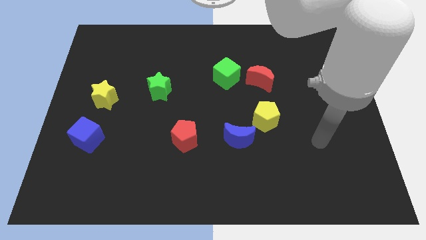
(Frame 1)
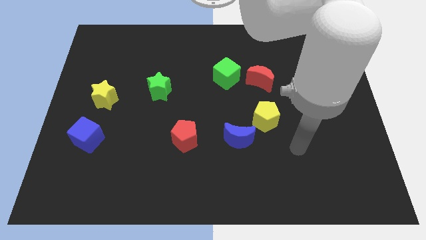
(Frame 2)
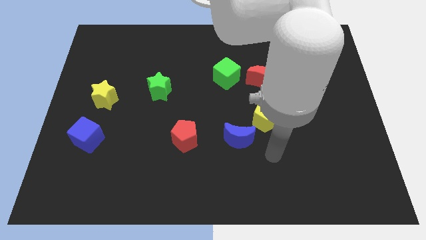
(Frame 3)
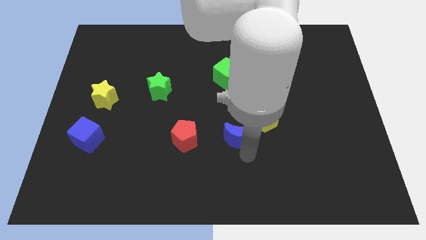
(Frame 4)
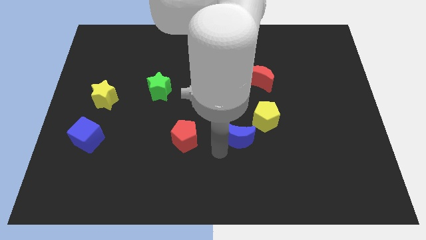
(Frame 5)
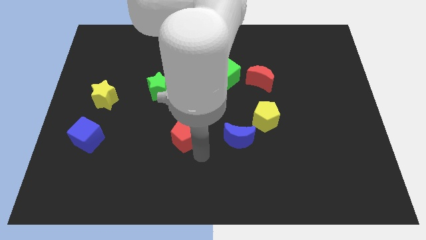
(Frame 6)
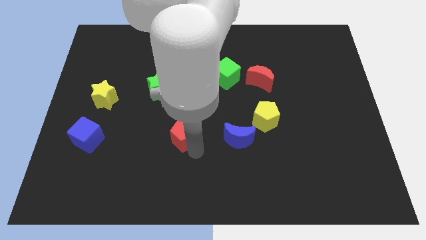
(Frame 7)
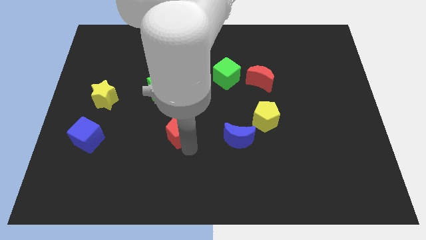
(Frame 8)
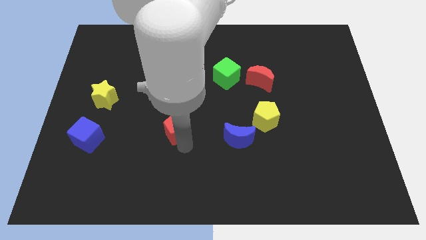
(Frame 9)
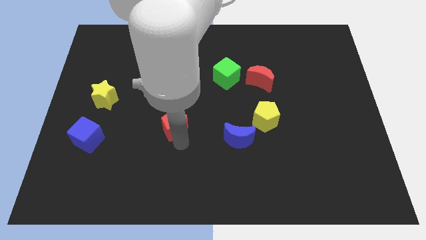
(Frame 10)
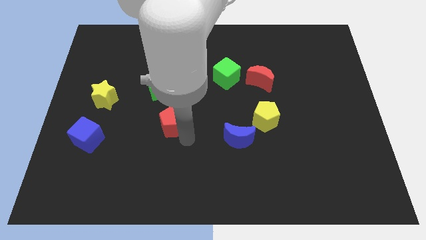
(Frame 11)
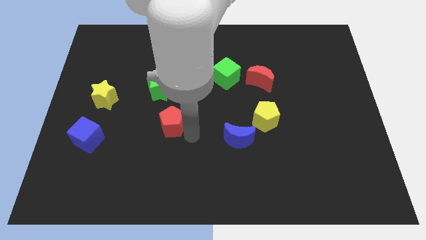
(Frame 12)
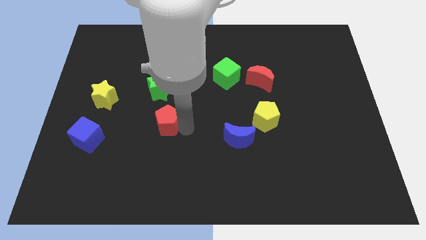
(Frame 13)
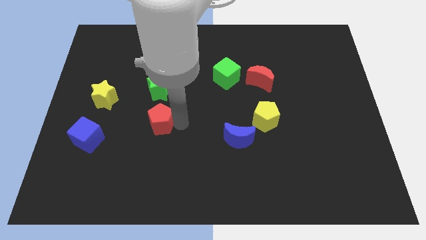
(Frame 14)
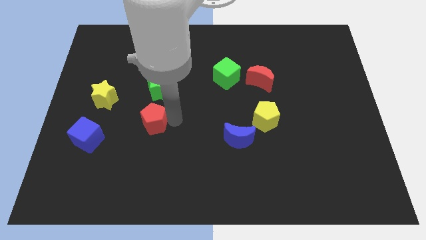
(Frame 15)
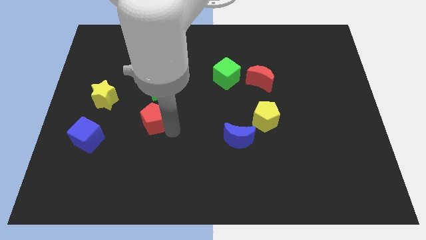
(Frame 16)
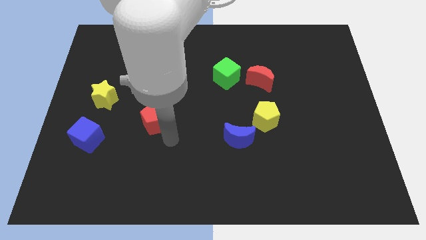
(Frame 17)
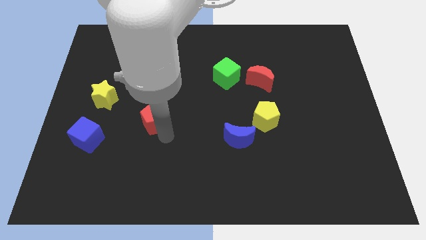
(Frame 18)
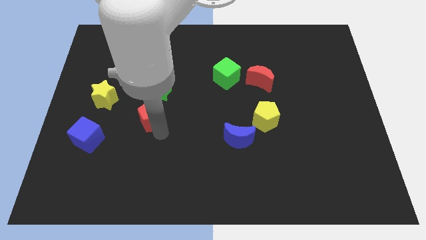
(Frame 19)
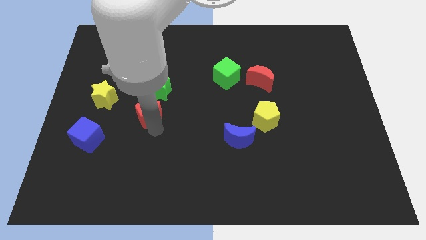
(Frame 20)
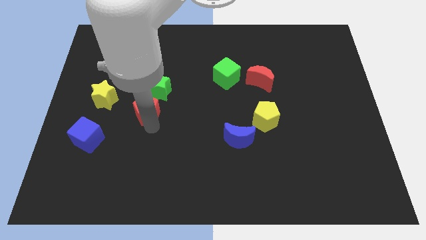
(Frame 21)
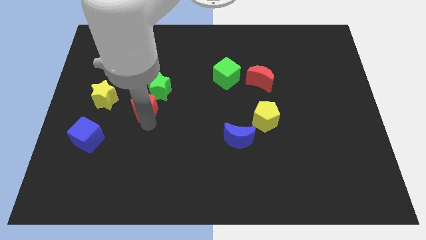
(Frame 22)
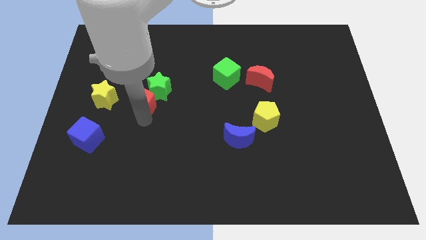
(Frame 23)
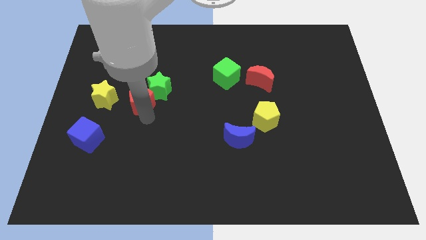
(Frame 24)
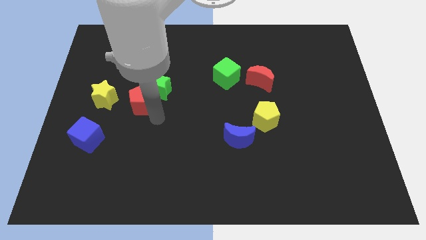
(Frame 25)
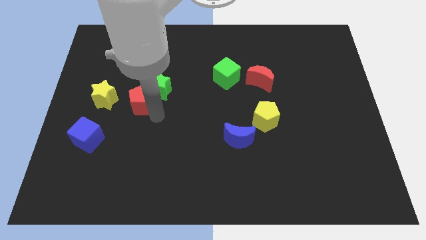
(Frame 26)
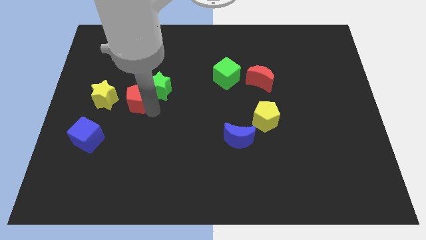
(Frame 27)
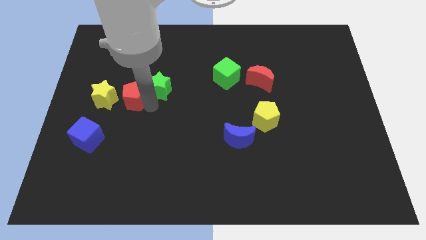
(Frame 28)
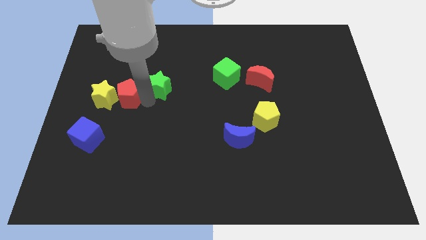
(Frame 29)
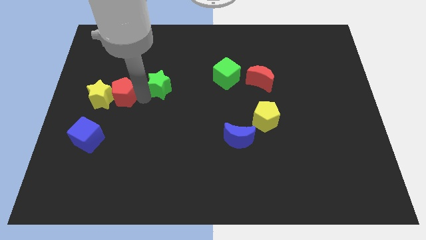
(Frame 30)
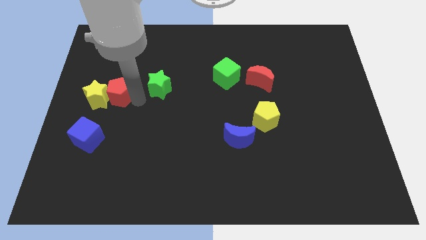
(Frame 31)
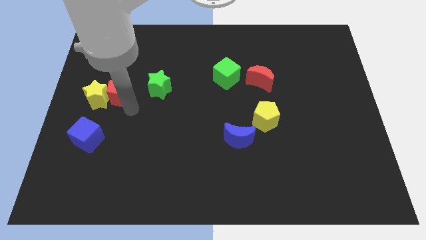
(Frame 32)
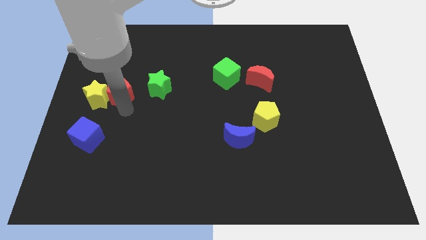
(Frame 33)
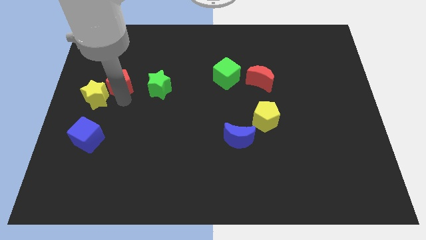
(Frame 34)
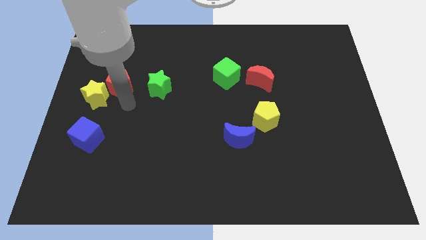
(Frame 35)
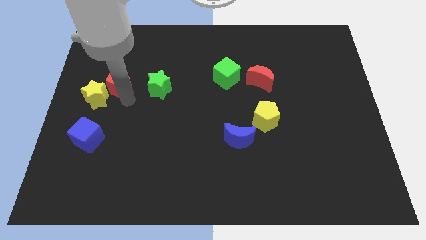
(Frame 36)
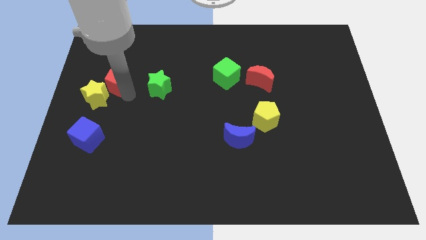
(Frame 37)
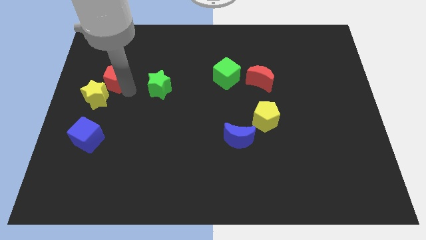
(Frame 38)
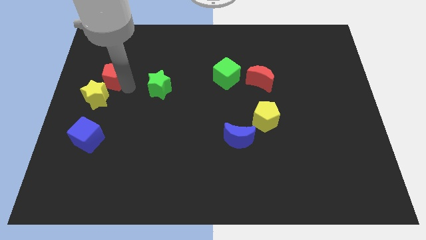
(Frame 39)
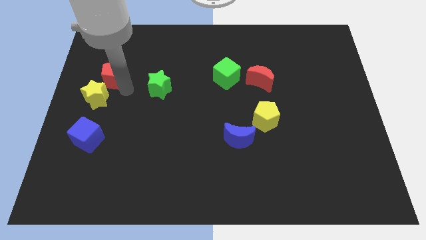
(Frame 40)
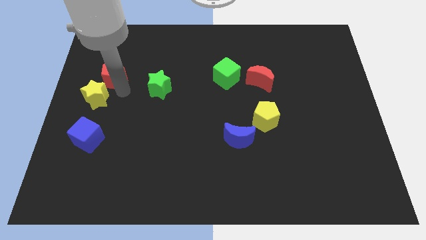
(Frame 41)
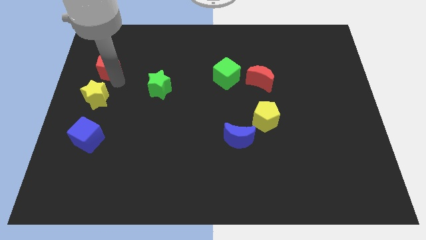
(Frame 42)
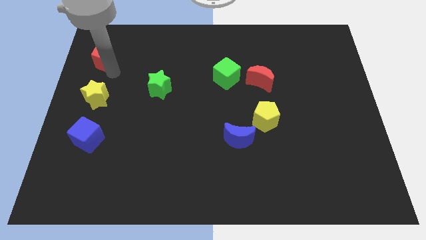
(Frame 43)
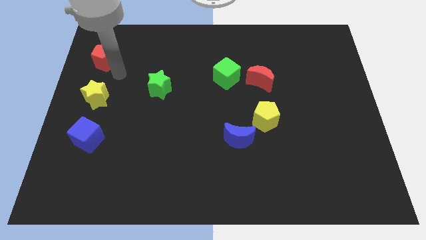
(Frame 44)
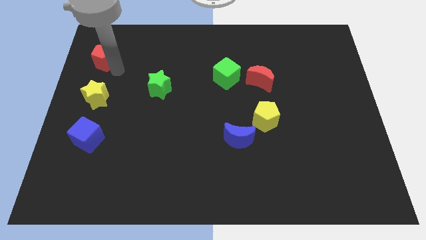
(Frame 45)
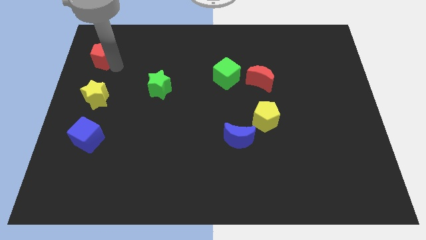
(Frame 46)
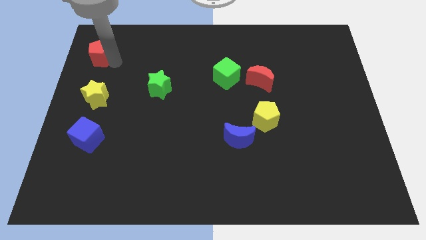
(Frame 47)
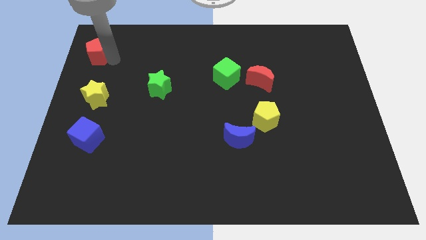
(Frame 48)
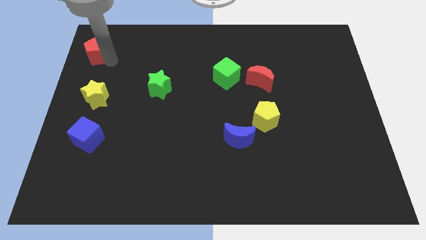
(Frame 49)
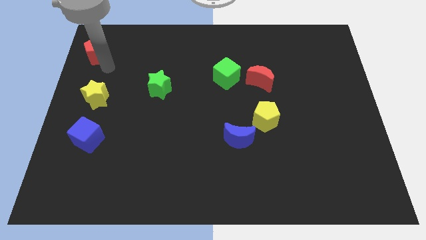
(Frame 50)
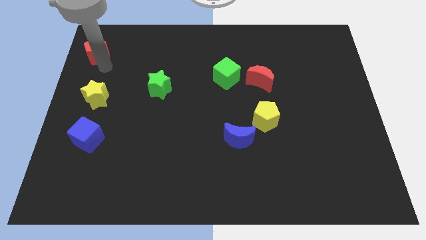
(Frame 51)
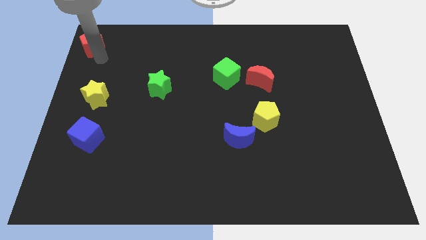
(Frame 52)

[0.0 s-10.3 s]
push the red pentagon to the top left corner

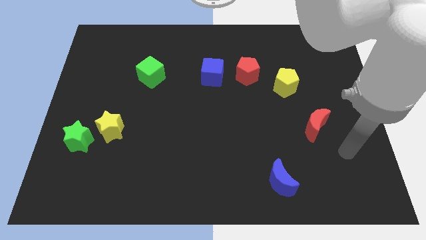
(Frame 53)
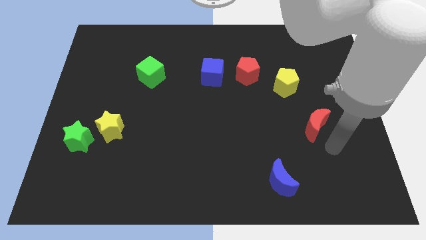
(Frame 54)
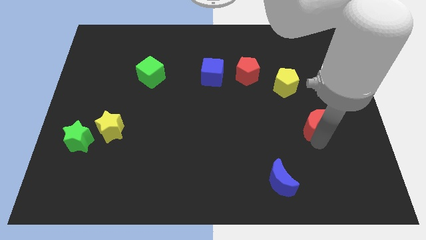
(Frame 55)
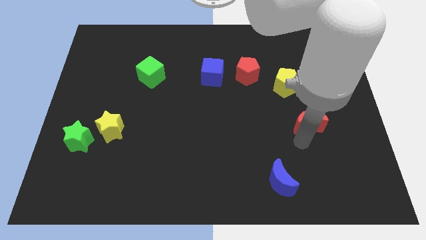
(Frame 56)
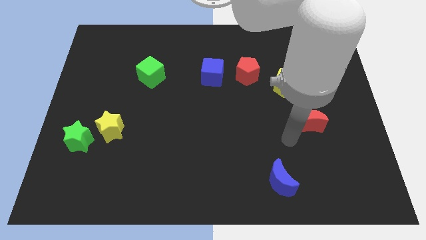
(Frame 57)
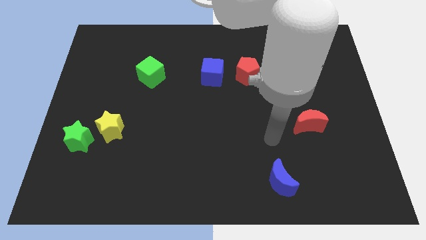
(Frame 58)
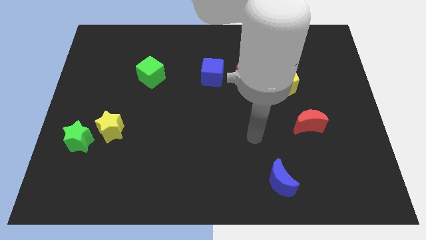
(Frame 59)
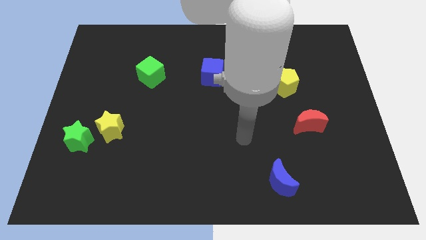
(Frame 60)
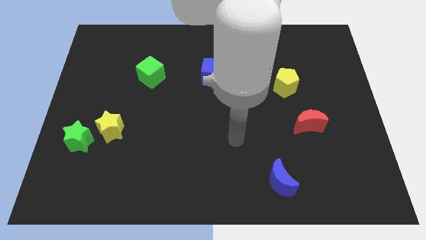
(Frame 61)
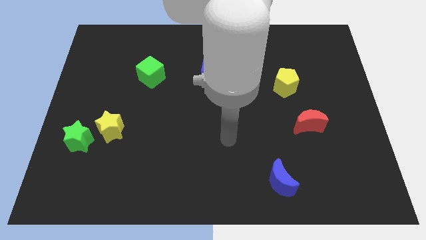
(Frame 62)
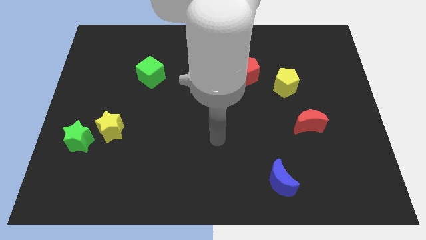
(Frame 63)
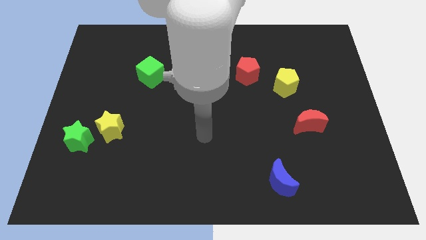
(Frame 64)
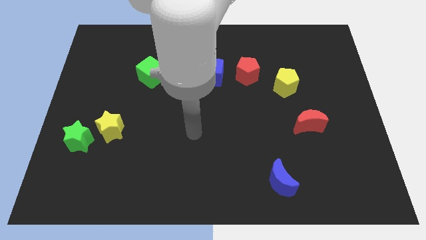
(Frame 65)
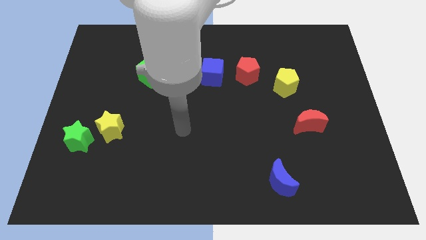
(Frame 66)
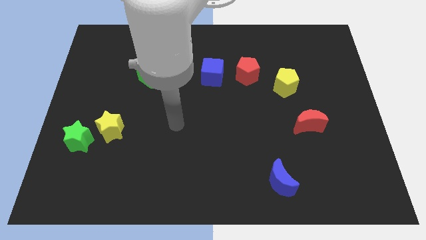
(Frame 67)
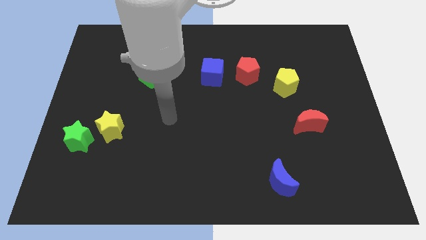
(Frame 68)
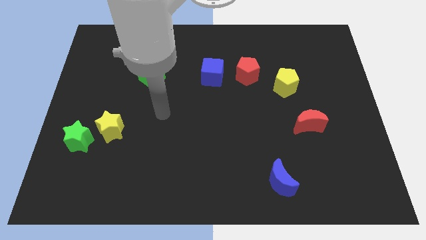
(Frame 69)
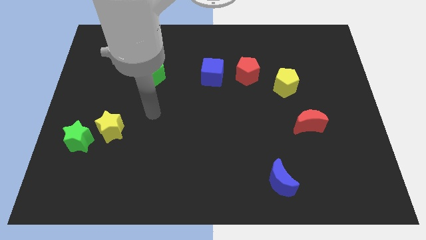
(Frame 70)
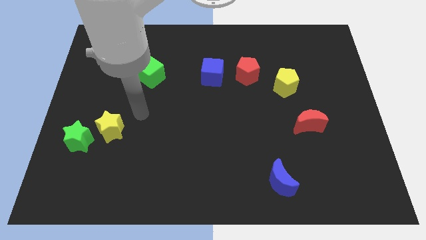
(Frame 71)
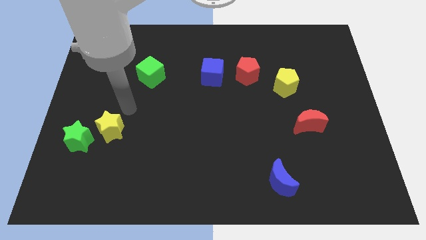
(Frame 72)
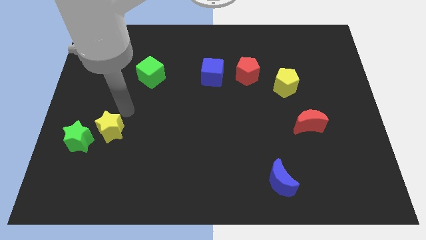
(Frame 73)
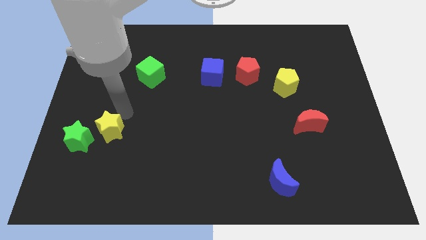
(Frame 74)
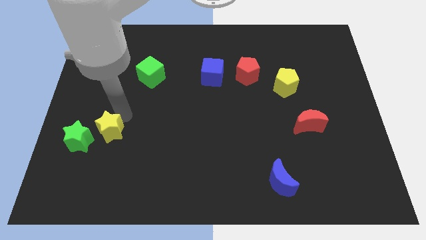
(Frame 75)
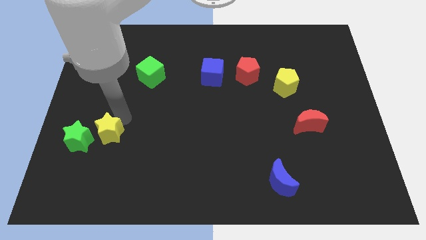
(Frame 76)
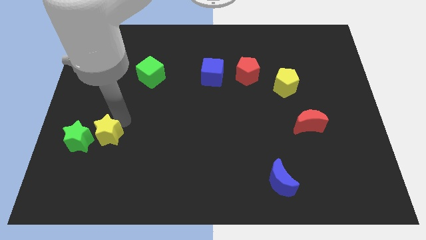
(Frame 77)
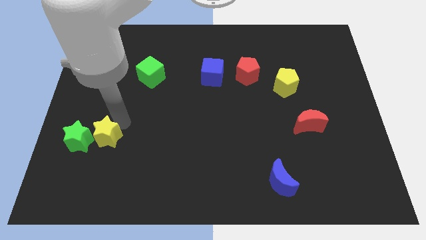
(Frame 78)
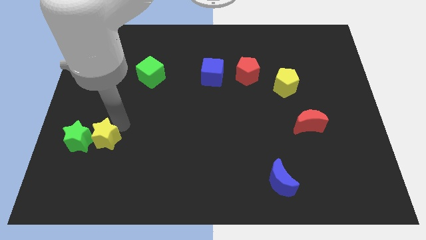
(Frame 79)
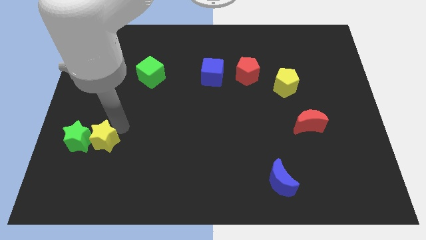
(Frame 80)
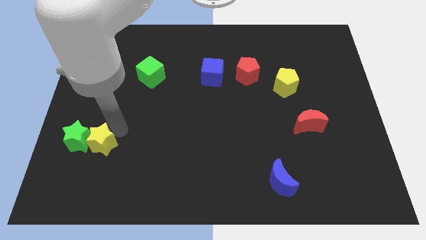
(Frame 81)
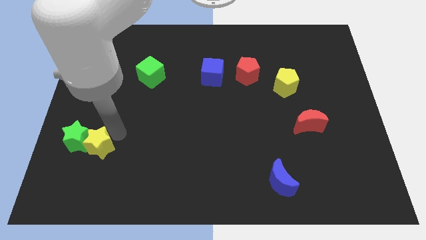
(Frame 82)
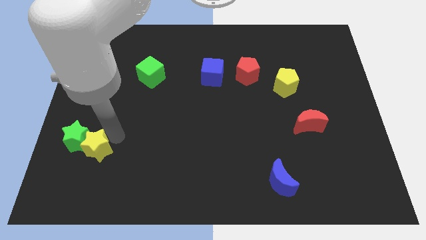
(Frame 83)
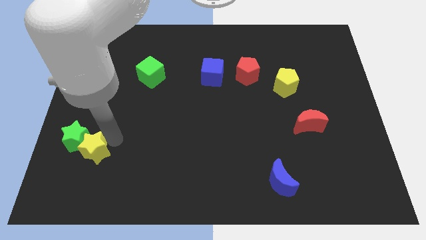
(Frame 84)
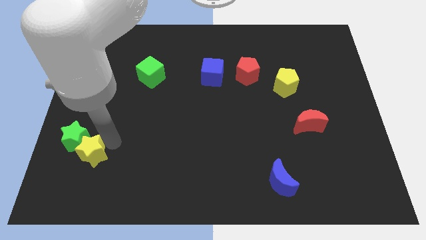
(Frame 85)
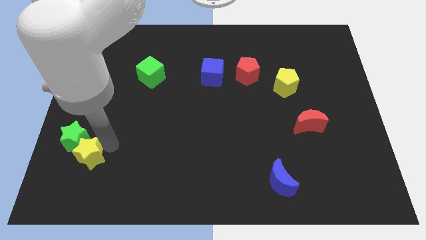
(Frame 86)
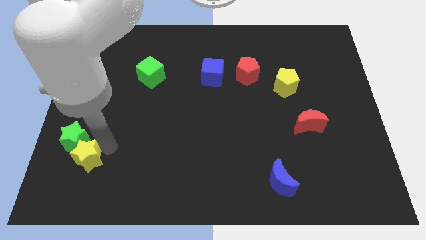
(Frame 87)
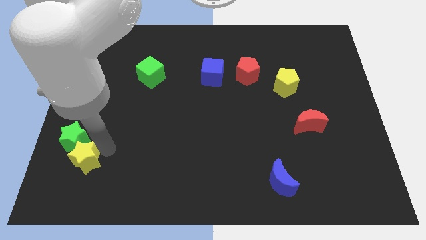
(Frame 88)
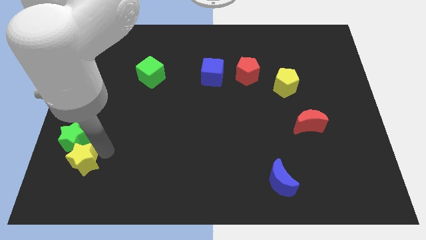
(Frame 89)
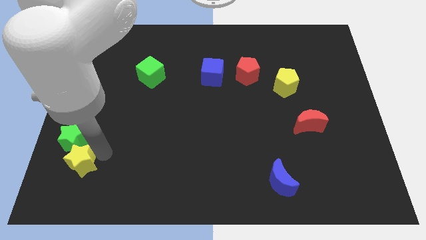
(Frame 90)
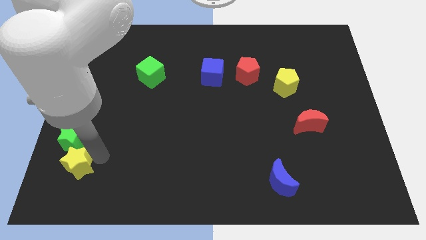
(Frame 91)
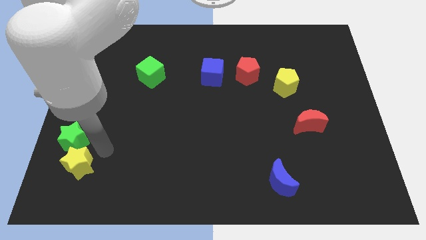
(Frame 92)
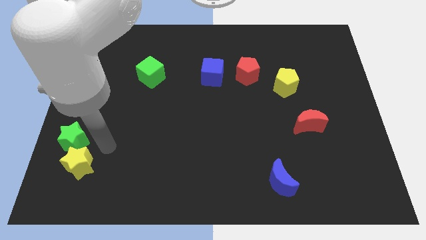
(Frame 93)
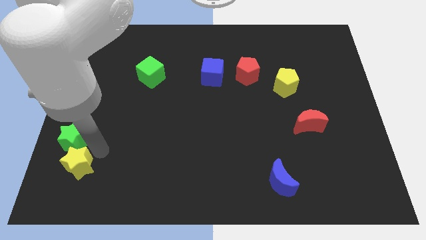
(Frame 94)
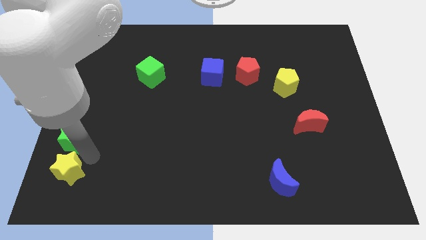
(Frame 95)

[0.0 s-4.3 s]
move the yellow star to the lower left corner
